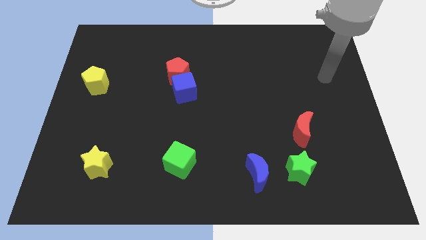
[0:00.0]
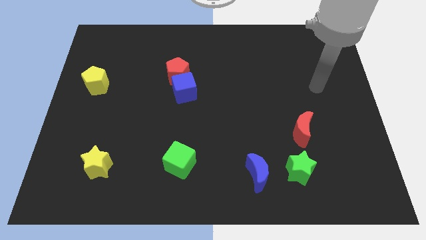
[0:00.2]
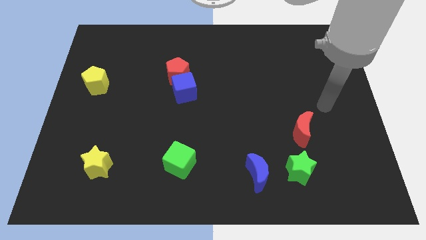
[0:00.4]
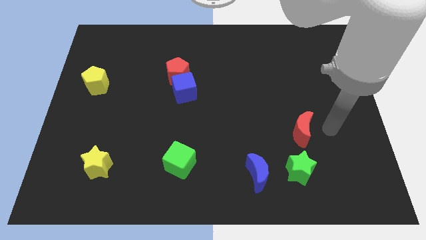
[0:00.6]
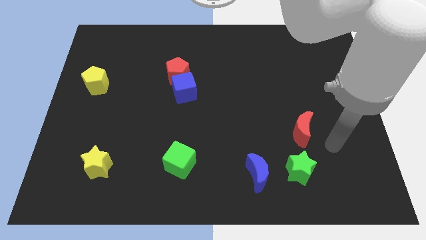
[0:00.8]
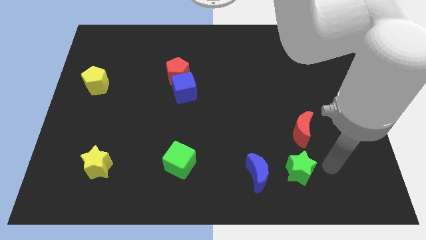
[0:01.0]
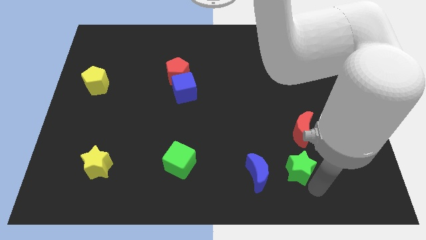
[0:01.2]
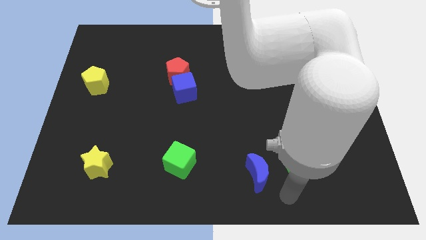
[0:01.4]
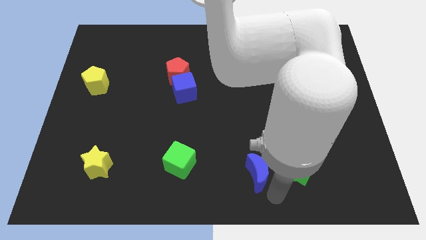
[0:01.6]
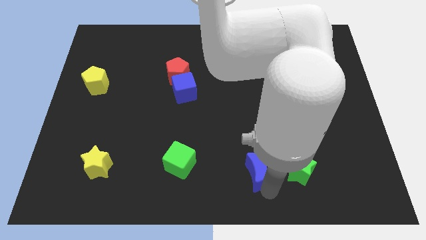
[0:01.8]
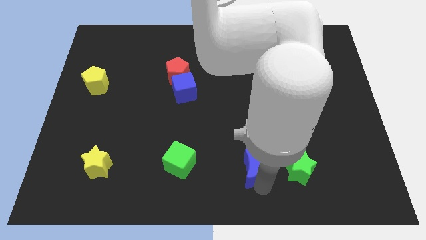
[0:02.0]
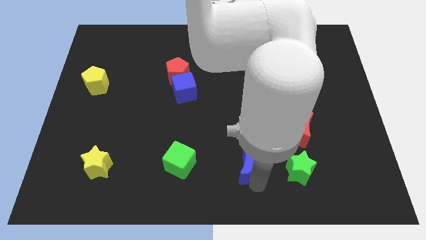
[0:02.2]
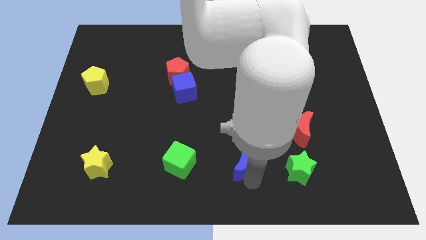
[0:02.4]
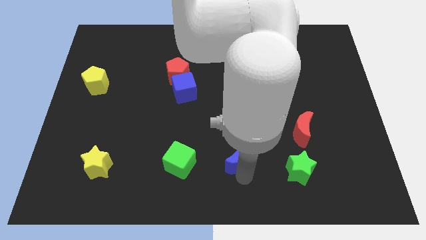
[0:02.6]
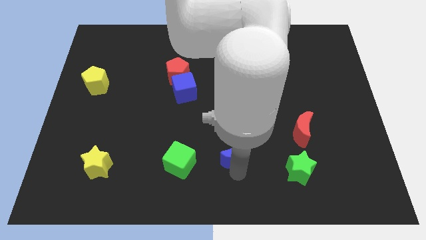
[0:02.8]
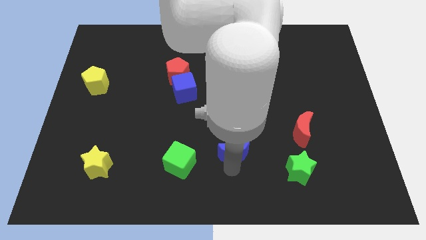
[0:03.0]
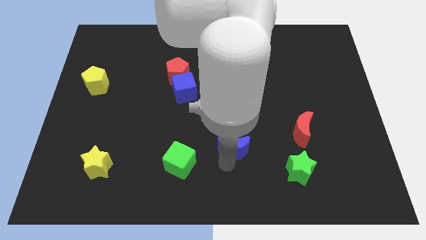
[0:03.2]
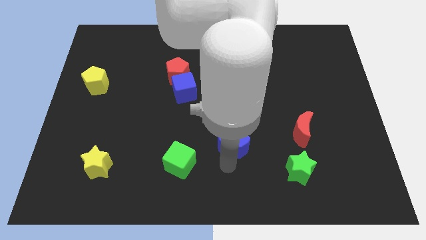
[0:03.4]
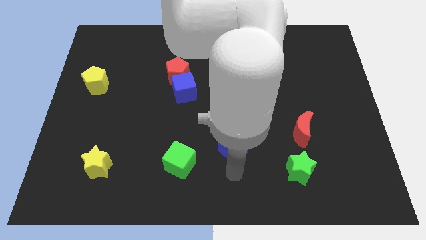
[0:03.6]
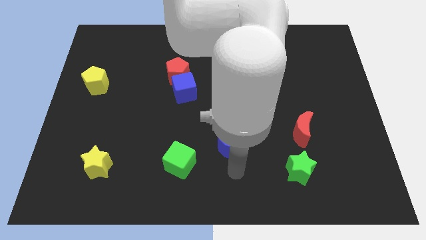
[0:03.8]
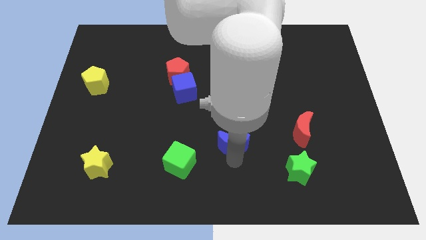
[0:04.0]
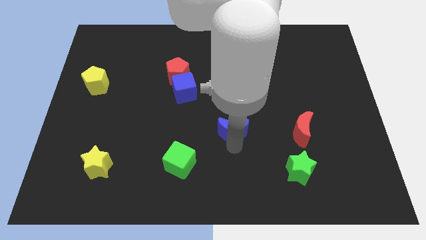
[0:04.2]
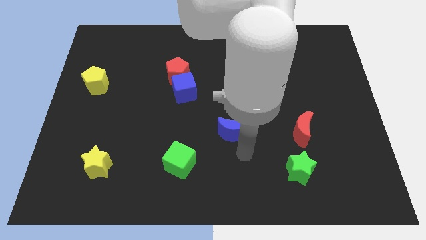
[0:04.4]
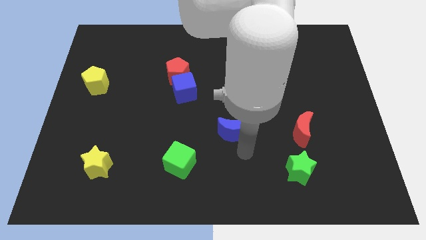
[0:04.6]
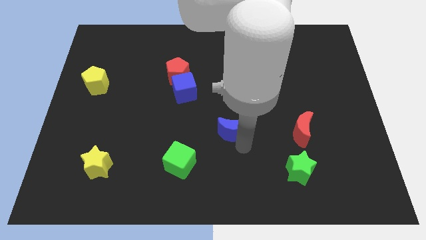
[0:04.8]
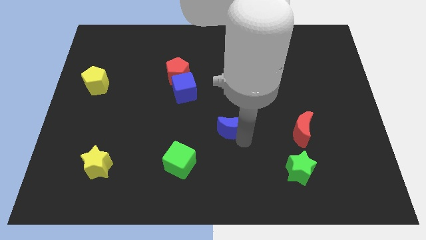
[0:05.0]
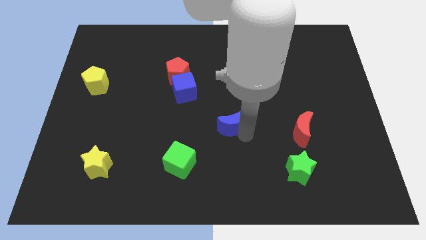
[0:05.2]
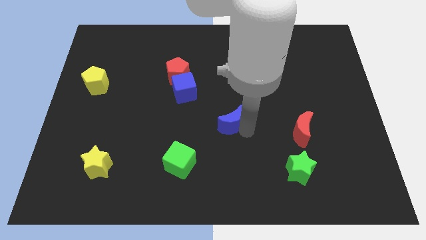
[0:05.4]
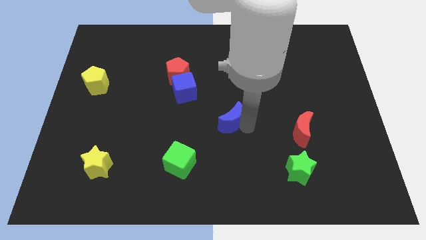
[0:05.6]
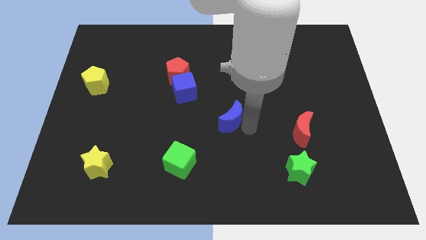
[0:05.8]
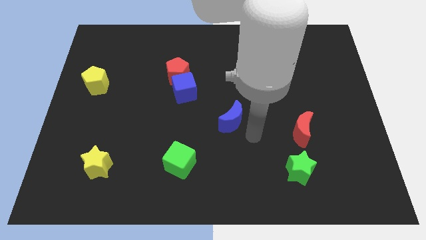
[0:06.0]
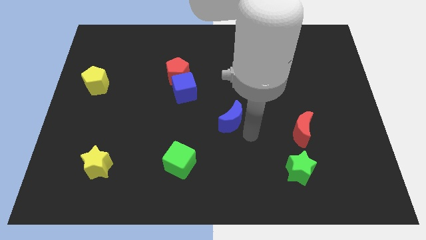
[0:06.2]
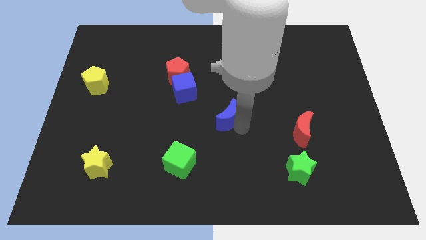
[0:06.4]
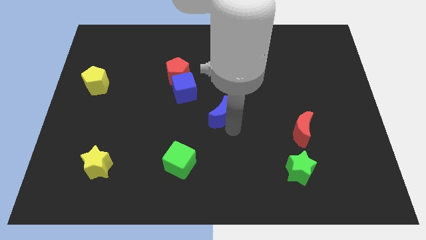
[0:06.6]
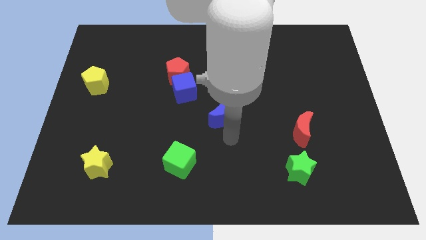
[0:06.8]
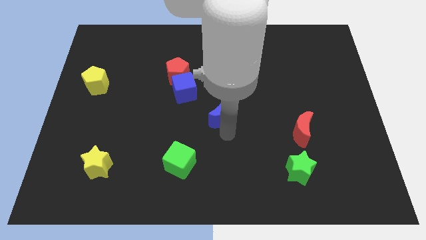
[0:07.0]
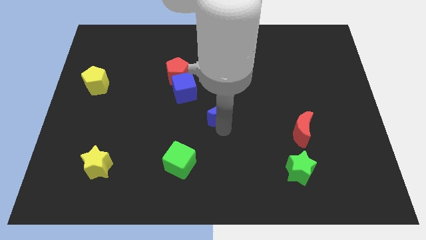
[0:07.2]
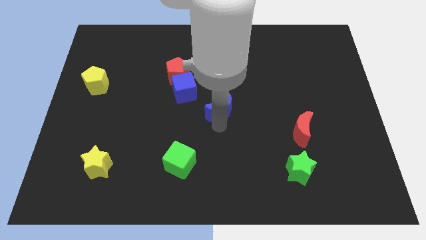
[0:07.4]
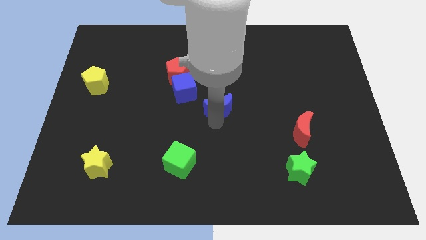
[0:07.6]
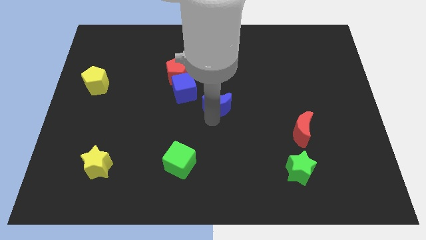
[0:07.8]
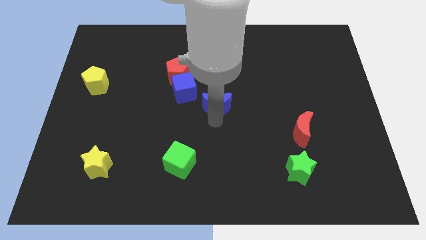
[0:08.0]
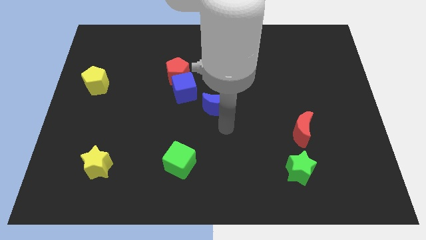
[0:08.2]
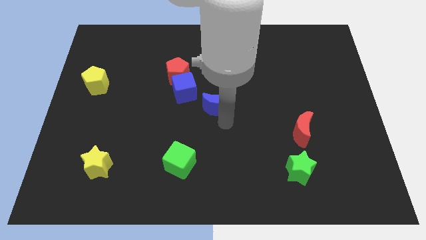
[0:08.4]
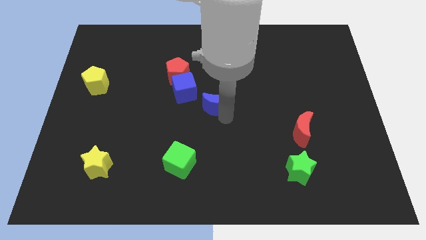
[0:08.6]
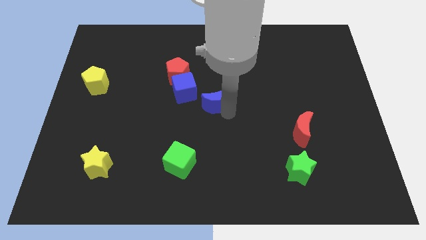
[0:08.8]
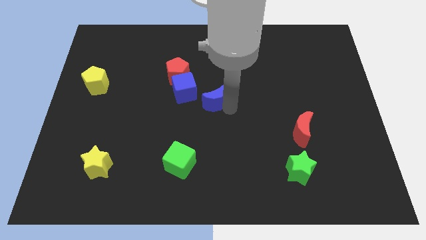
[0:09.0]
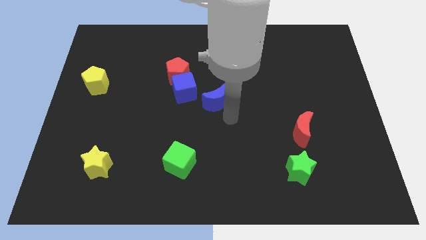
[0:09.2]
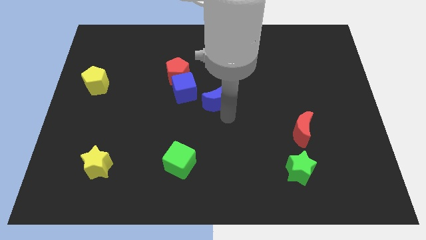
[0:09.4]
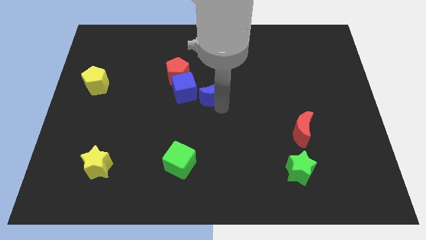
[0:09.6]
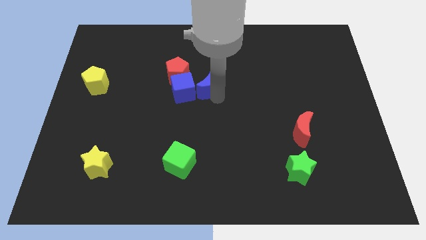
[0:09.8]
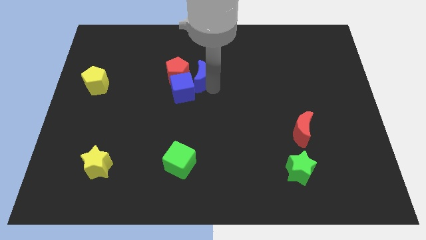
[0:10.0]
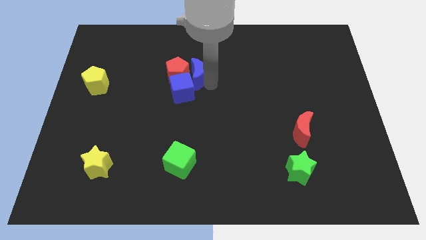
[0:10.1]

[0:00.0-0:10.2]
push the blue moon next to the red pentagon

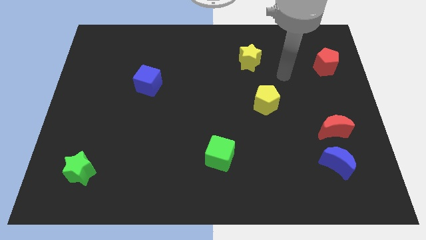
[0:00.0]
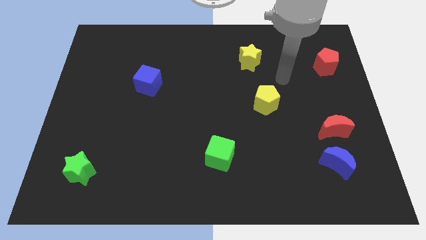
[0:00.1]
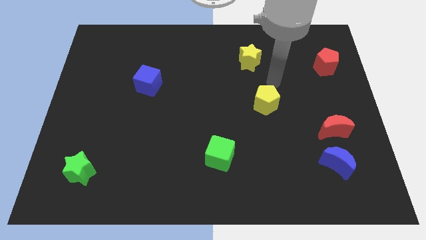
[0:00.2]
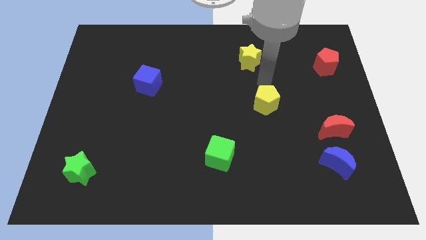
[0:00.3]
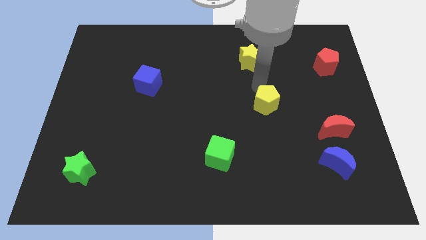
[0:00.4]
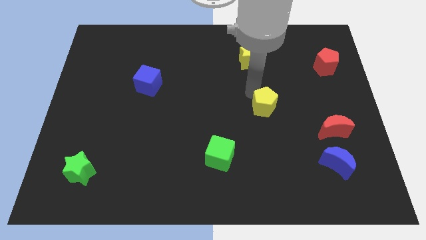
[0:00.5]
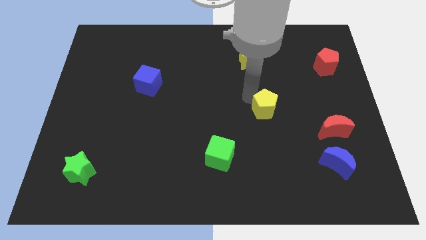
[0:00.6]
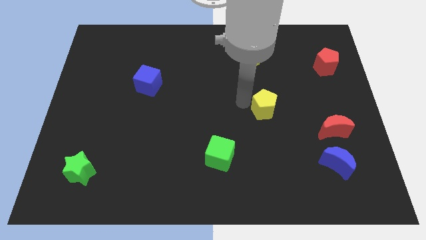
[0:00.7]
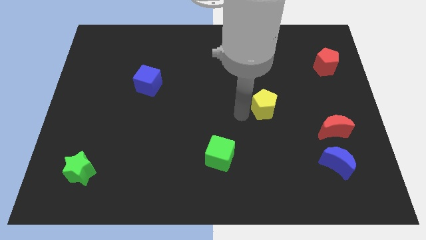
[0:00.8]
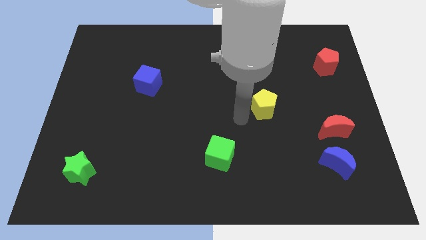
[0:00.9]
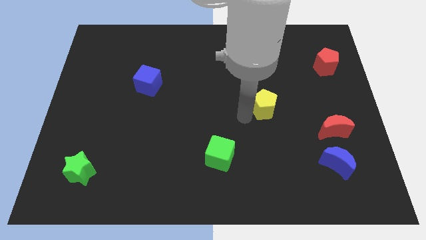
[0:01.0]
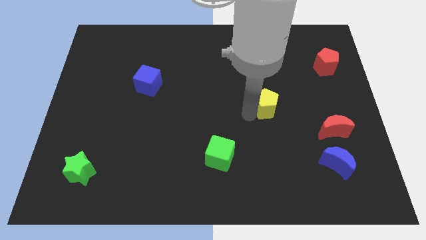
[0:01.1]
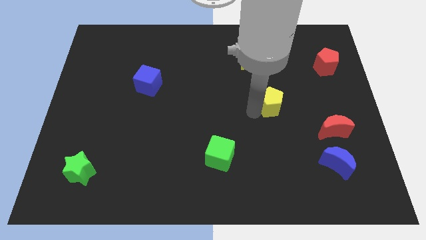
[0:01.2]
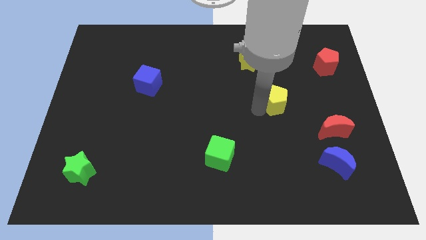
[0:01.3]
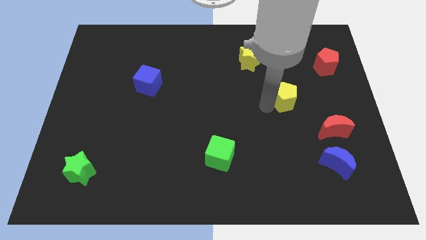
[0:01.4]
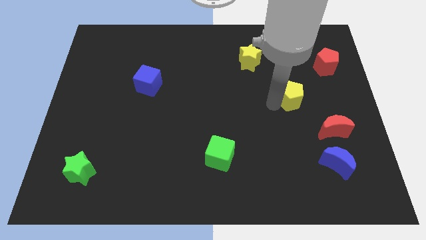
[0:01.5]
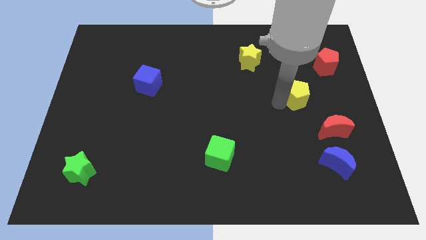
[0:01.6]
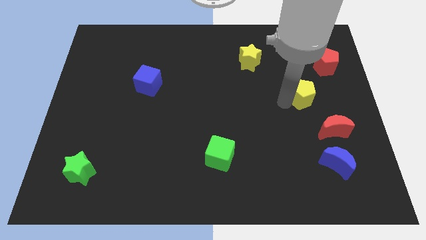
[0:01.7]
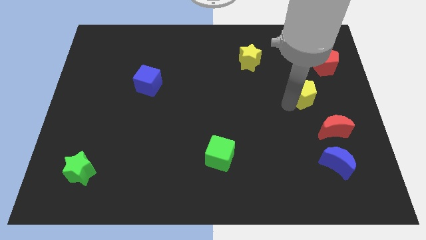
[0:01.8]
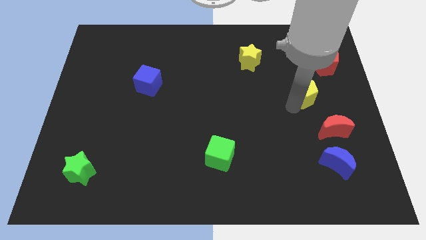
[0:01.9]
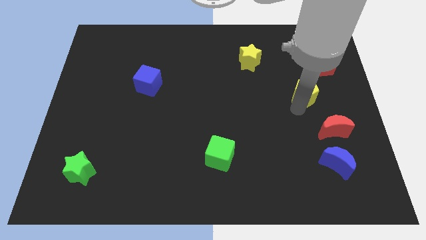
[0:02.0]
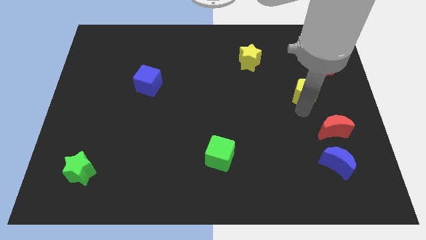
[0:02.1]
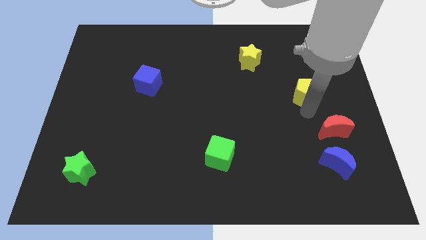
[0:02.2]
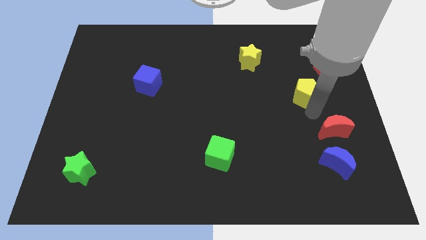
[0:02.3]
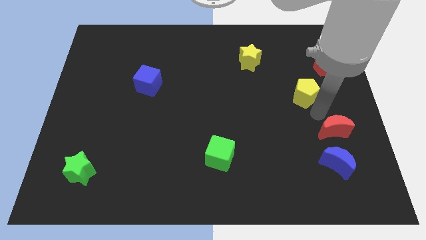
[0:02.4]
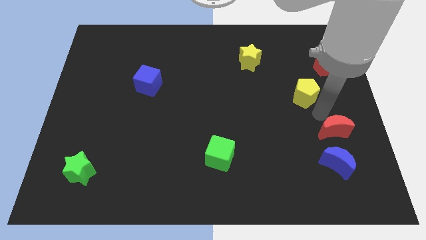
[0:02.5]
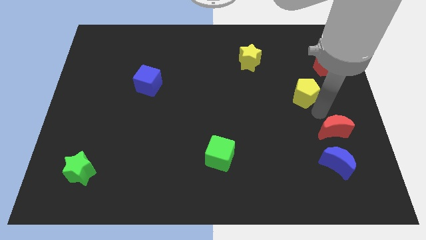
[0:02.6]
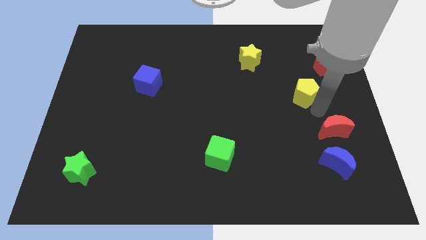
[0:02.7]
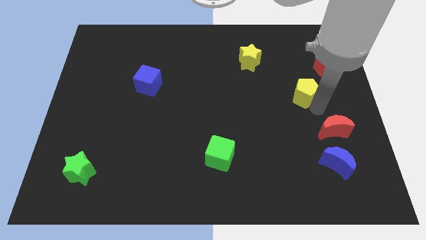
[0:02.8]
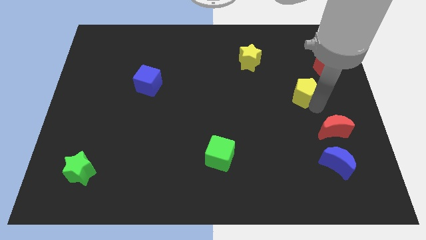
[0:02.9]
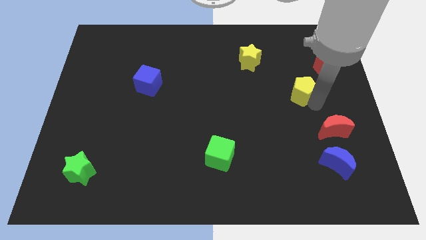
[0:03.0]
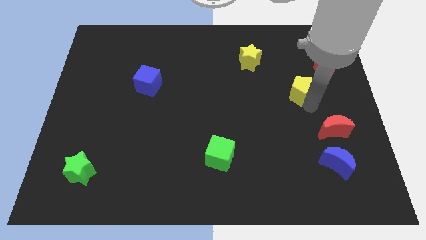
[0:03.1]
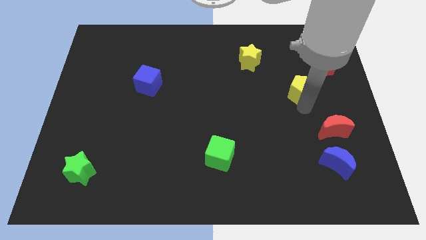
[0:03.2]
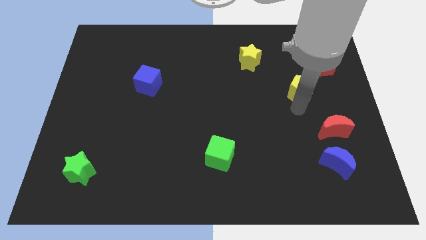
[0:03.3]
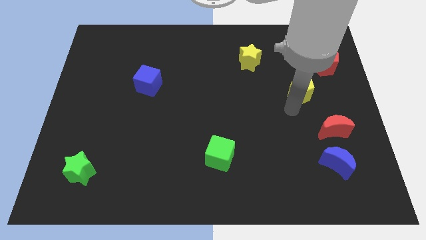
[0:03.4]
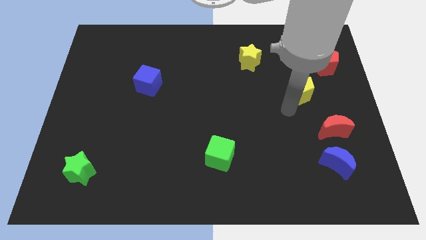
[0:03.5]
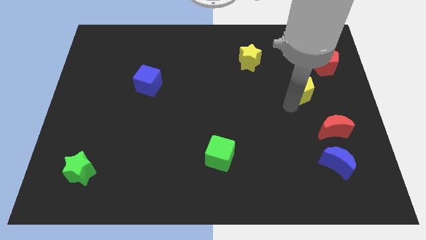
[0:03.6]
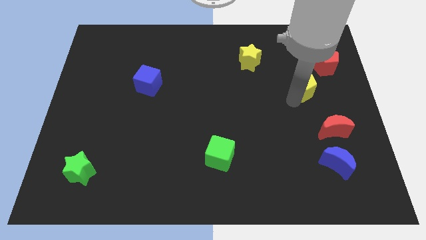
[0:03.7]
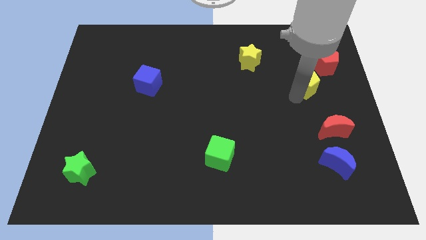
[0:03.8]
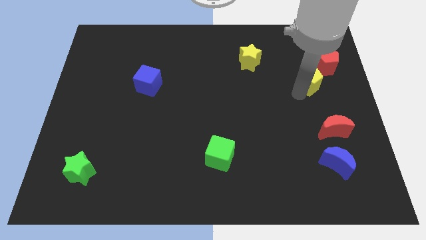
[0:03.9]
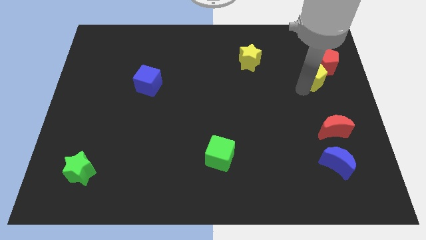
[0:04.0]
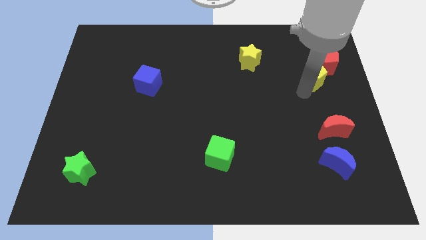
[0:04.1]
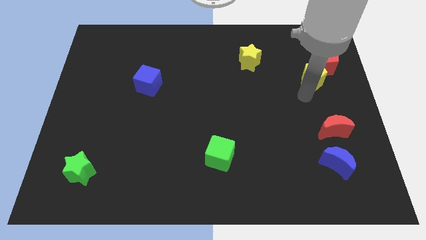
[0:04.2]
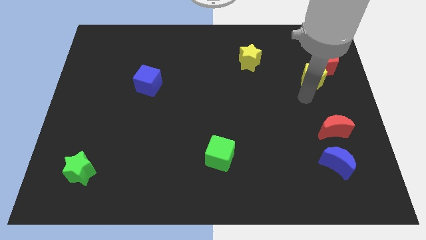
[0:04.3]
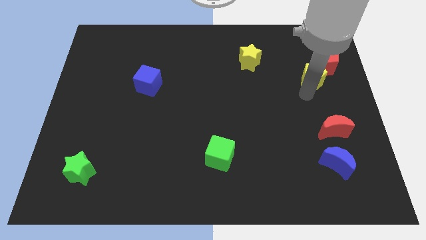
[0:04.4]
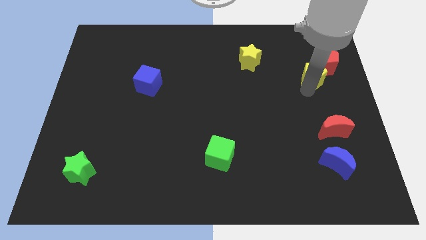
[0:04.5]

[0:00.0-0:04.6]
slide the yellow pentagon next to the red pentagon
